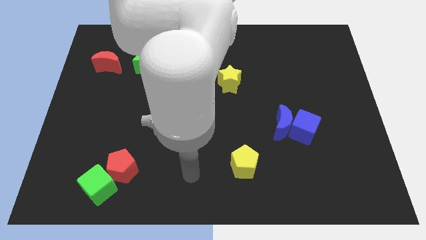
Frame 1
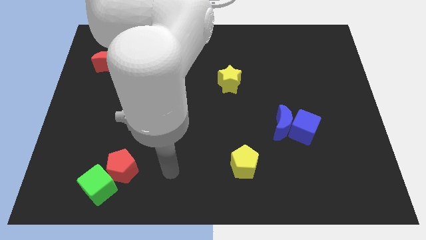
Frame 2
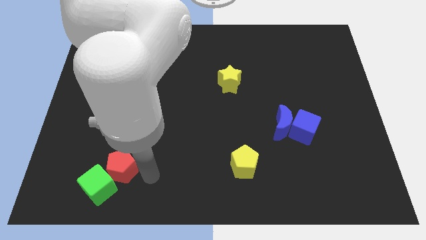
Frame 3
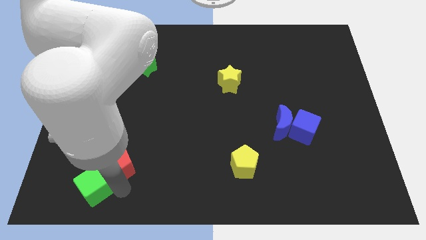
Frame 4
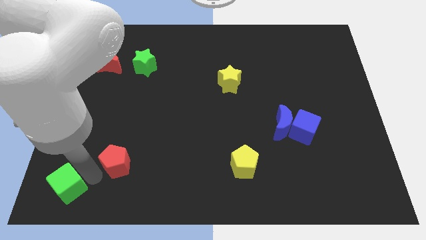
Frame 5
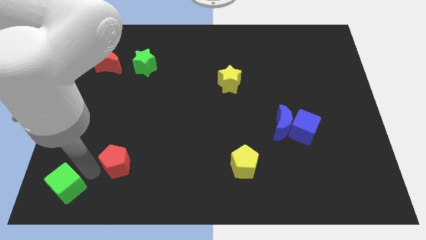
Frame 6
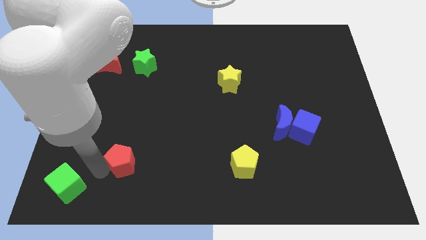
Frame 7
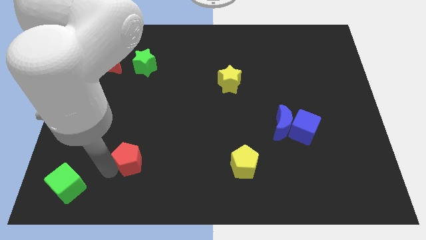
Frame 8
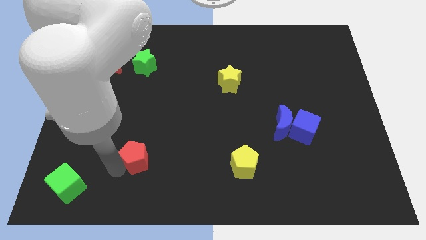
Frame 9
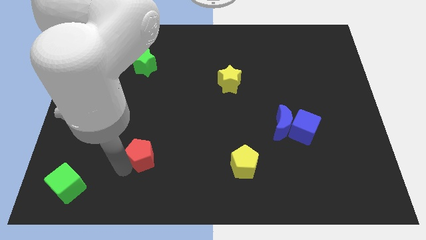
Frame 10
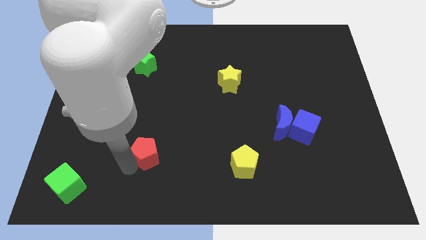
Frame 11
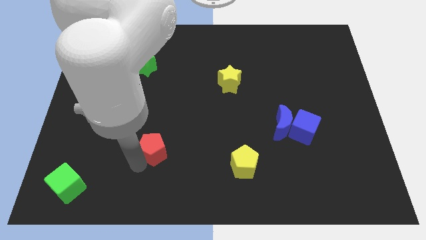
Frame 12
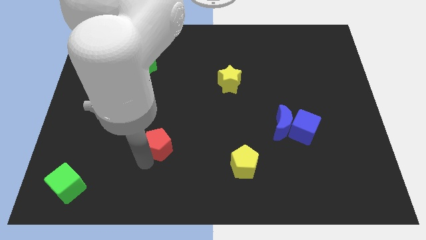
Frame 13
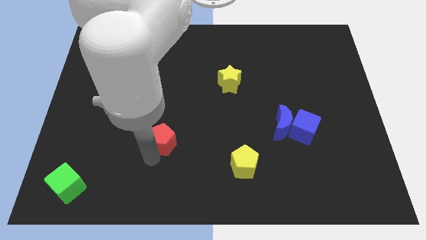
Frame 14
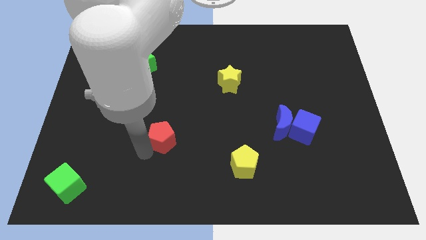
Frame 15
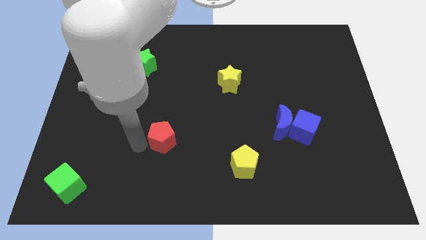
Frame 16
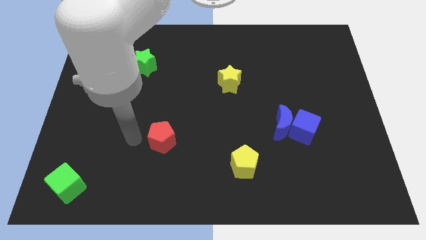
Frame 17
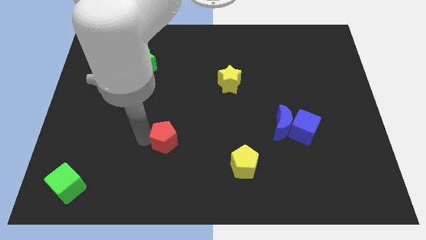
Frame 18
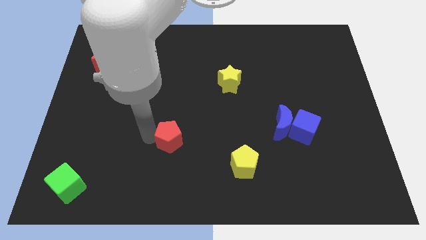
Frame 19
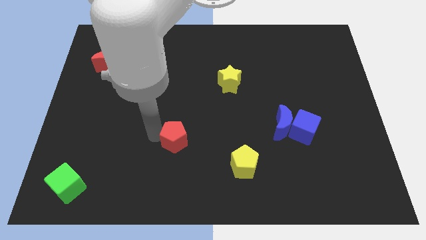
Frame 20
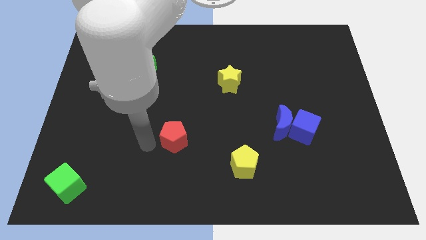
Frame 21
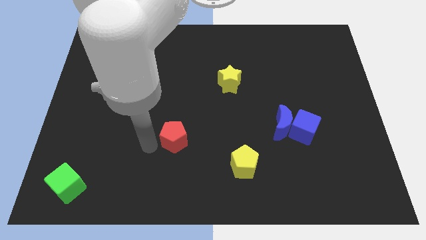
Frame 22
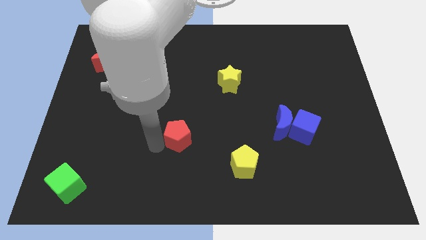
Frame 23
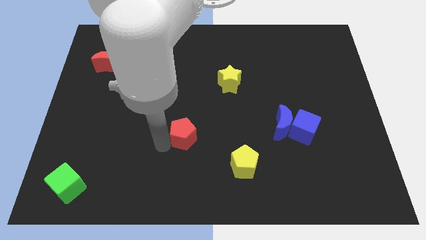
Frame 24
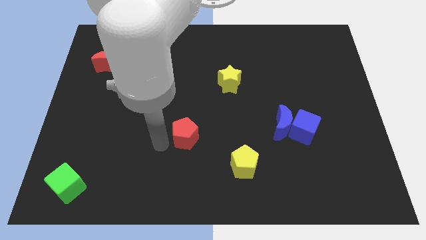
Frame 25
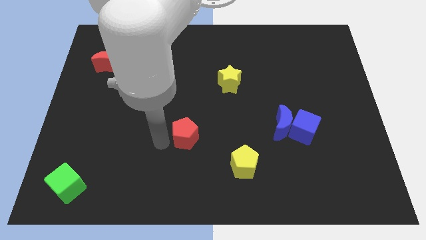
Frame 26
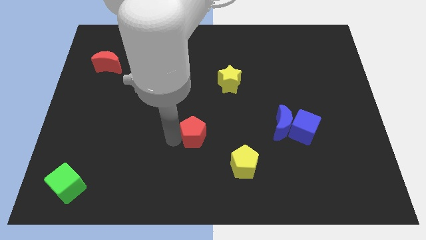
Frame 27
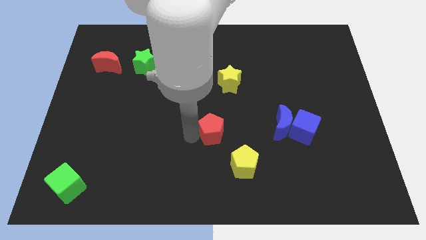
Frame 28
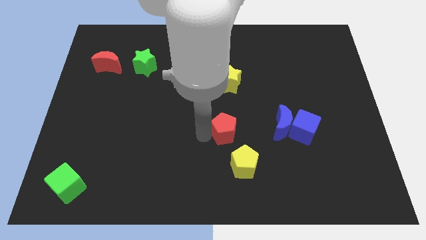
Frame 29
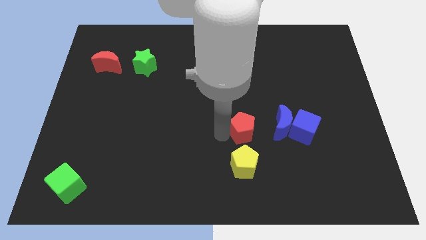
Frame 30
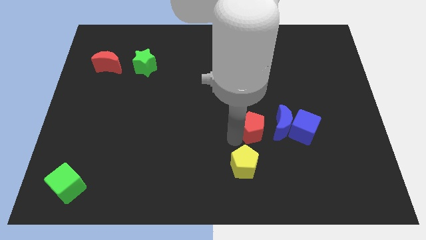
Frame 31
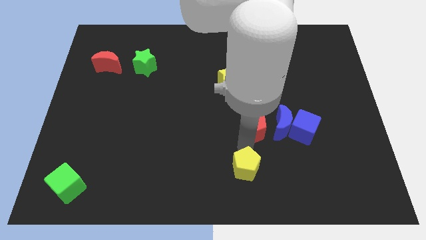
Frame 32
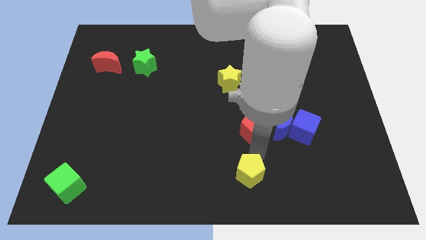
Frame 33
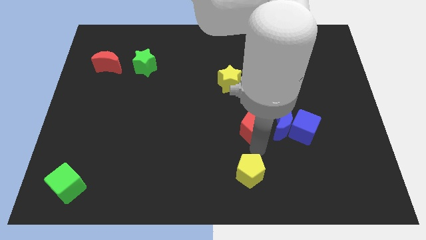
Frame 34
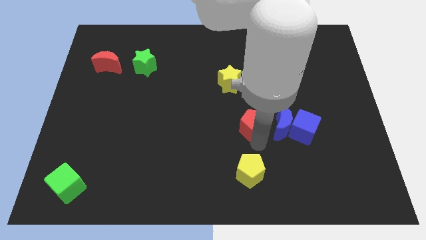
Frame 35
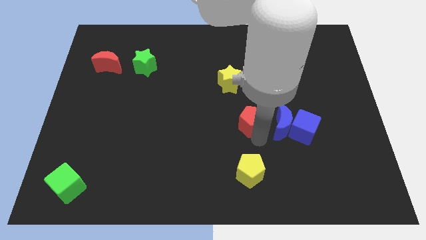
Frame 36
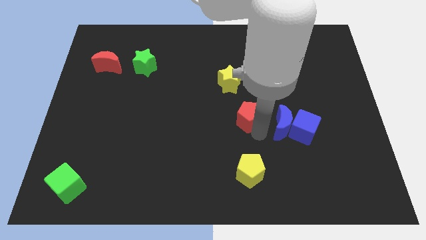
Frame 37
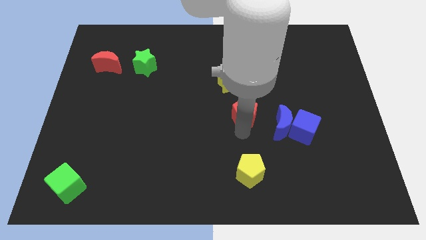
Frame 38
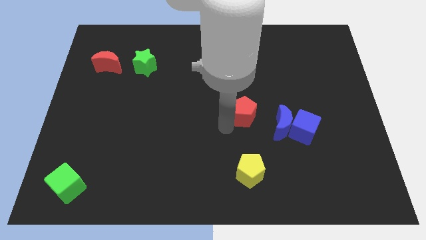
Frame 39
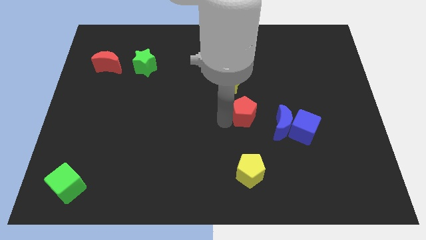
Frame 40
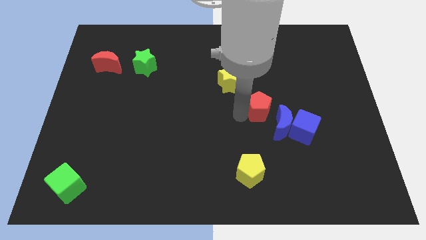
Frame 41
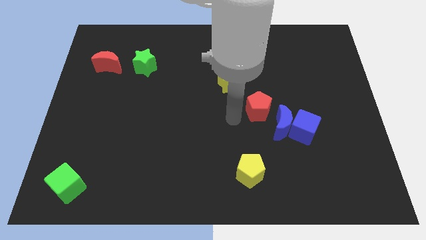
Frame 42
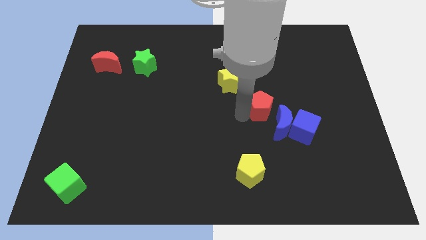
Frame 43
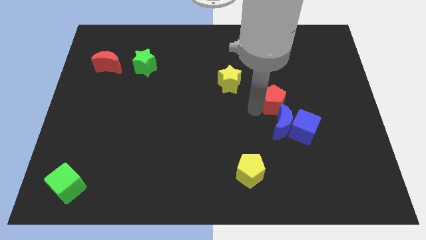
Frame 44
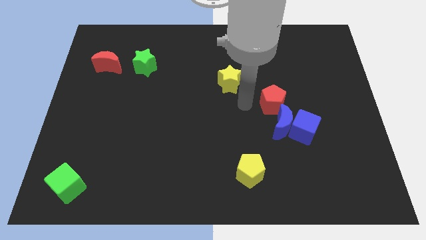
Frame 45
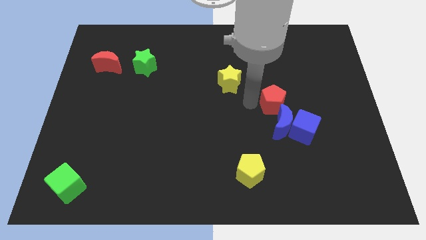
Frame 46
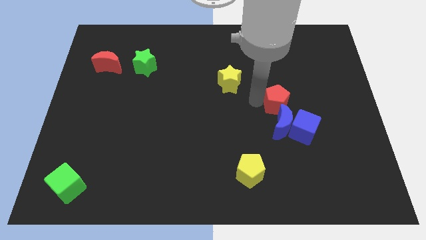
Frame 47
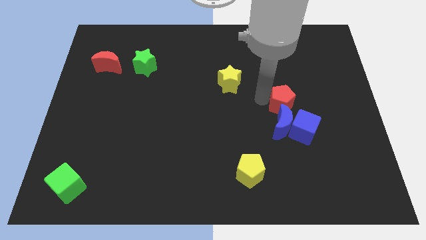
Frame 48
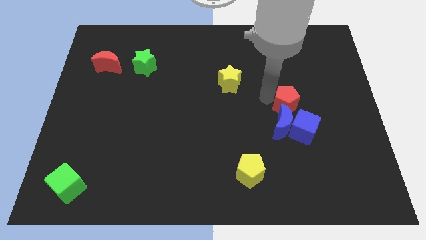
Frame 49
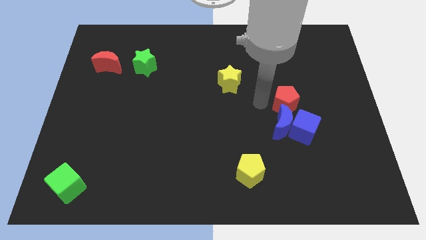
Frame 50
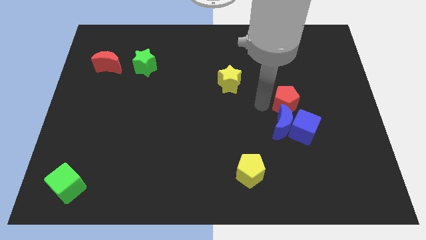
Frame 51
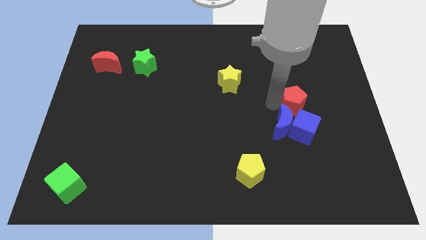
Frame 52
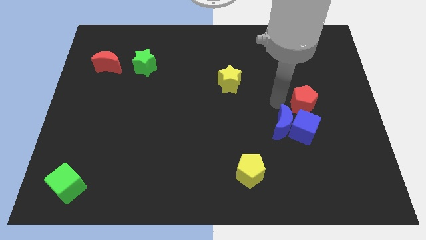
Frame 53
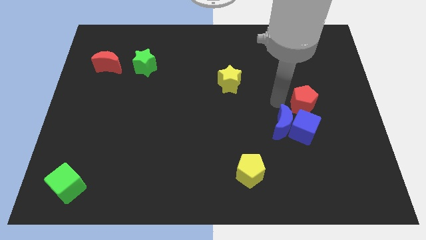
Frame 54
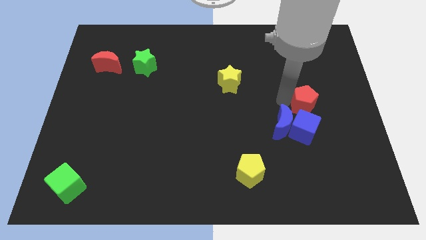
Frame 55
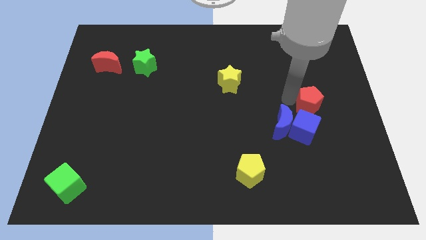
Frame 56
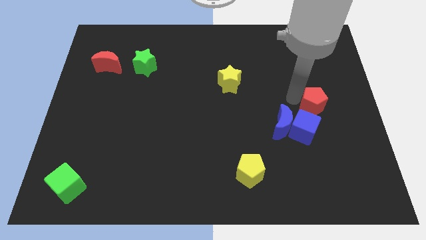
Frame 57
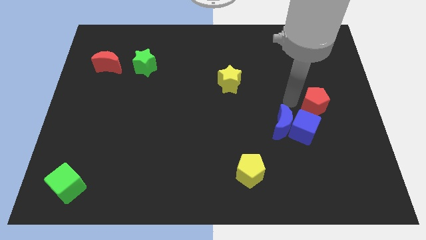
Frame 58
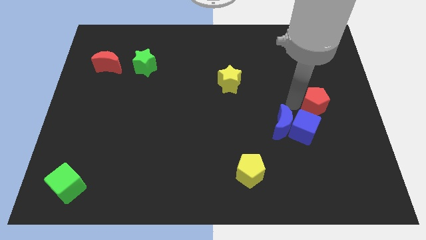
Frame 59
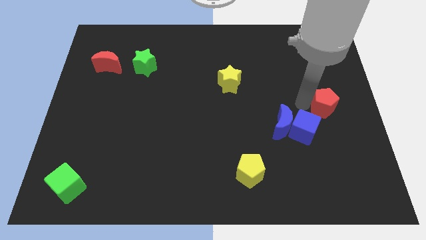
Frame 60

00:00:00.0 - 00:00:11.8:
put the red pentagon to the right side

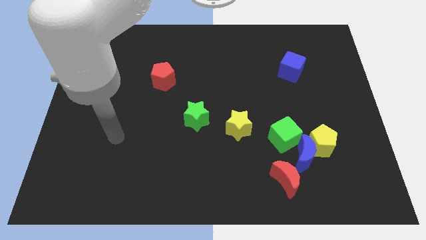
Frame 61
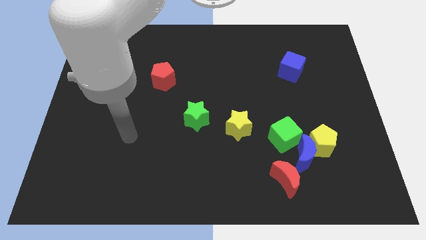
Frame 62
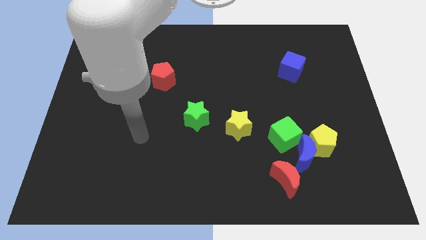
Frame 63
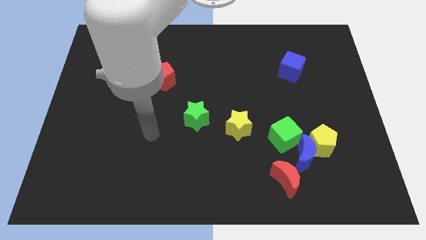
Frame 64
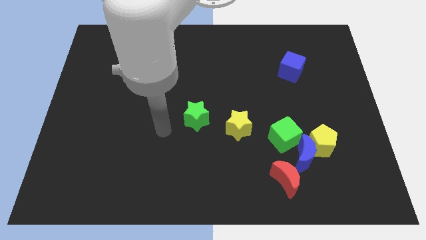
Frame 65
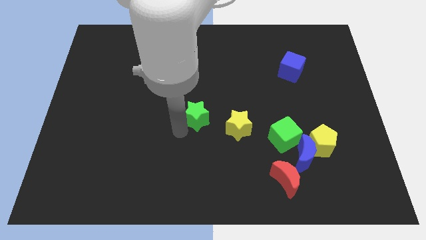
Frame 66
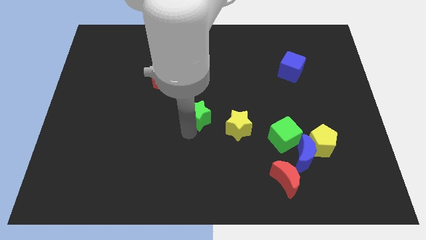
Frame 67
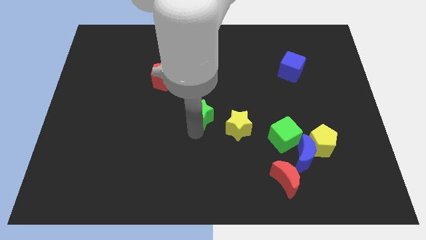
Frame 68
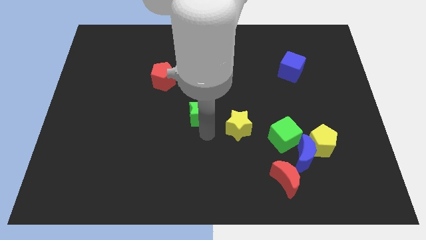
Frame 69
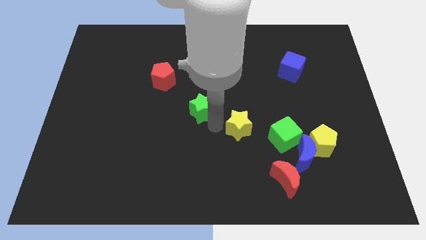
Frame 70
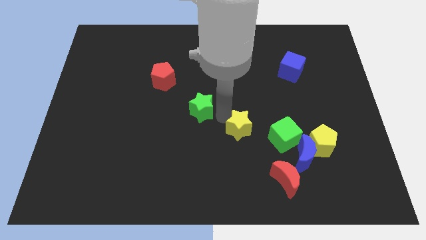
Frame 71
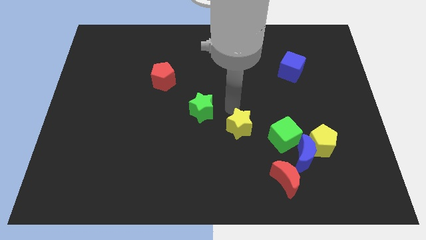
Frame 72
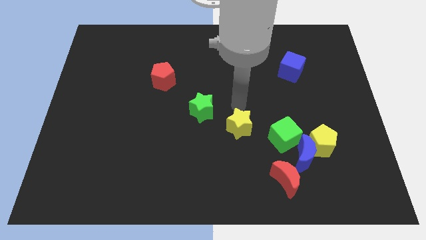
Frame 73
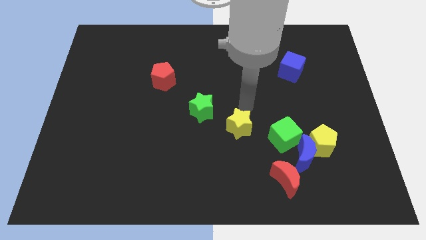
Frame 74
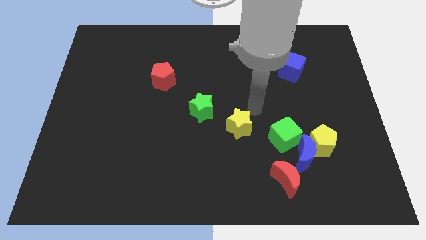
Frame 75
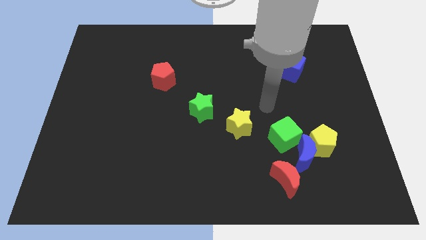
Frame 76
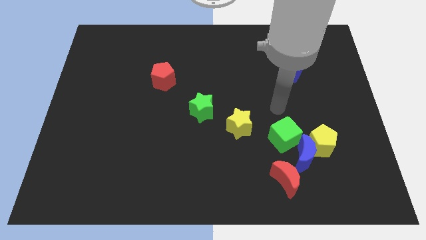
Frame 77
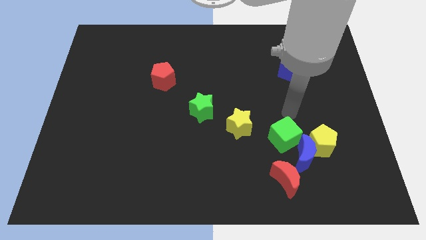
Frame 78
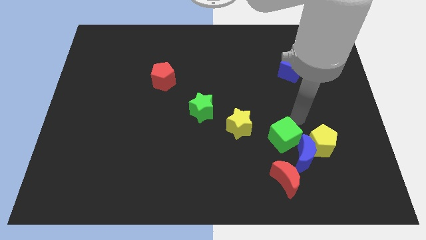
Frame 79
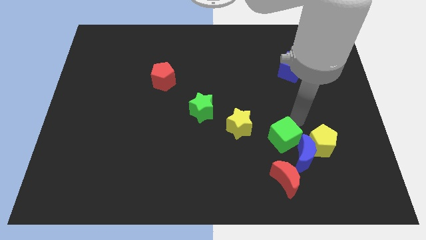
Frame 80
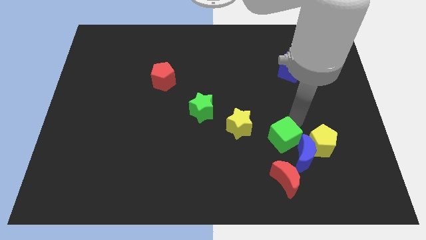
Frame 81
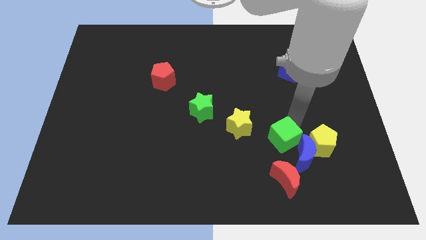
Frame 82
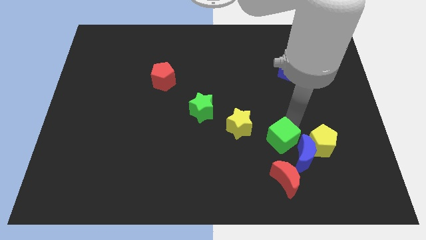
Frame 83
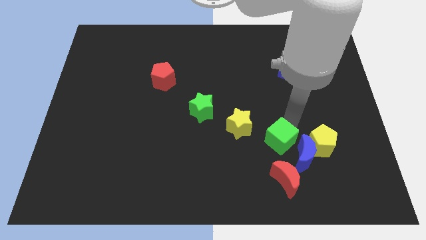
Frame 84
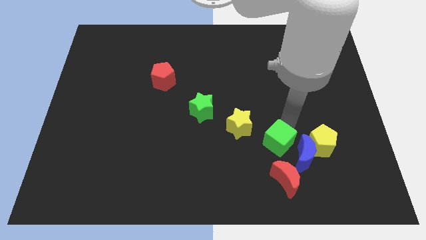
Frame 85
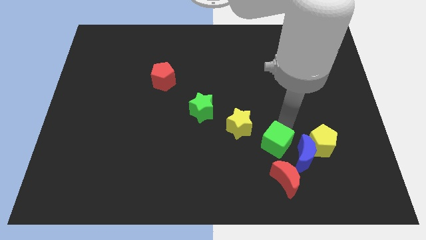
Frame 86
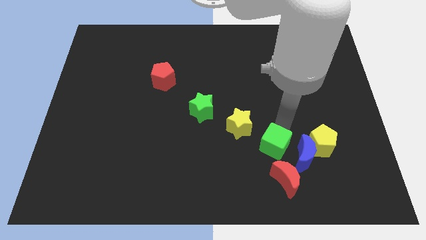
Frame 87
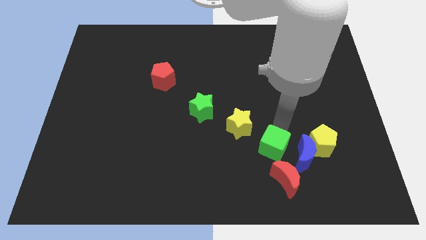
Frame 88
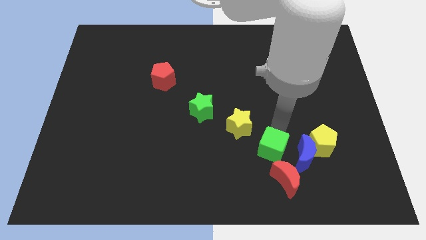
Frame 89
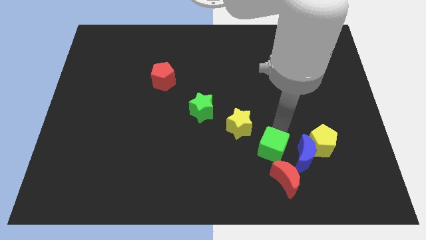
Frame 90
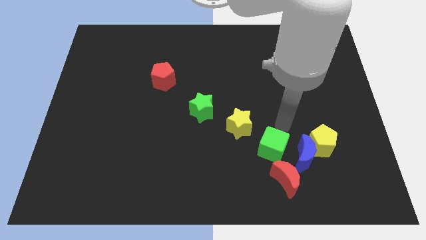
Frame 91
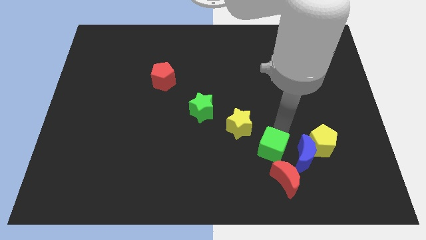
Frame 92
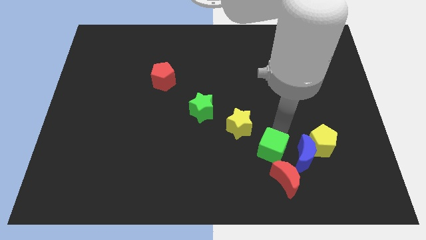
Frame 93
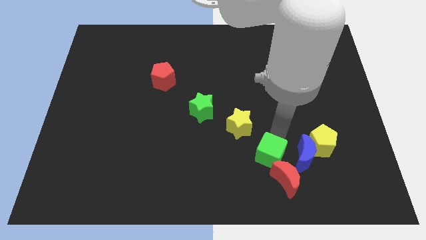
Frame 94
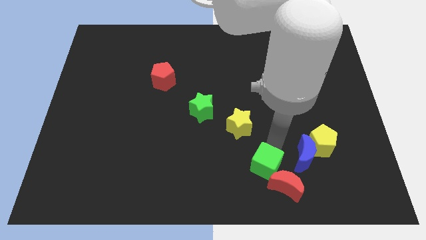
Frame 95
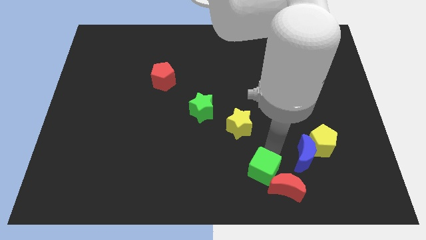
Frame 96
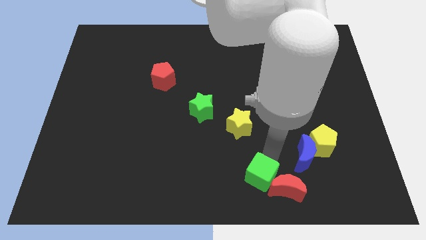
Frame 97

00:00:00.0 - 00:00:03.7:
move the green cube to the bottom side
